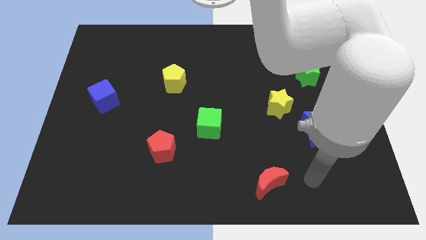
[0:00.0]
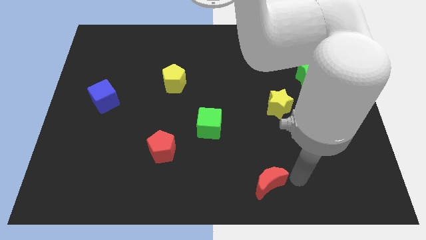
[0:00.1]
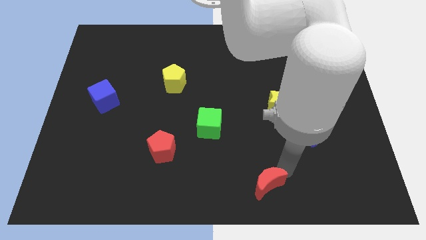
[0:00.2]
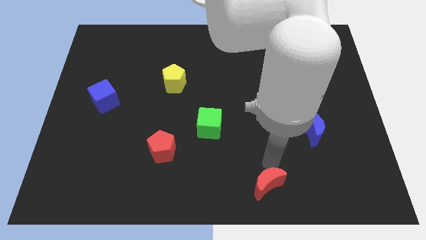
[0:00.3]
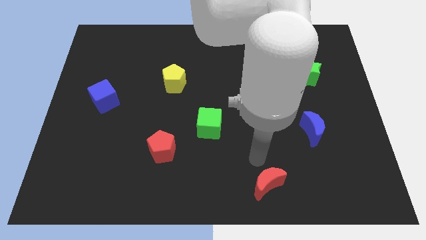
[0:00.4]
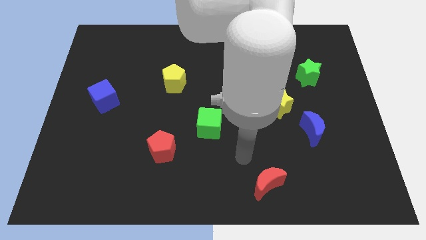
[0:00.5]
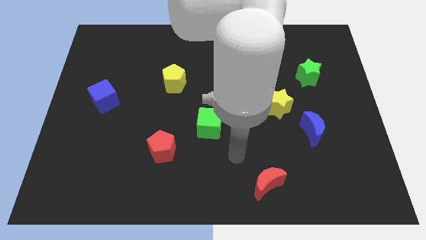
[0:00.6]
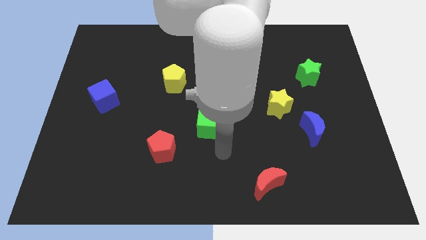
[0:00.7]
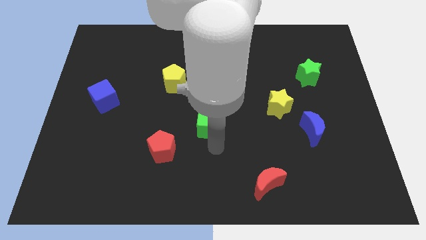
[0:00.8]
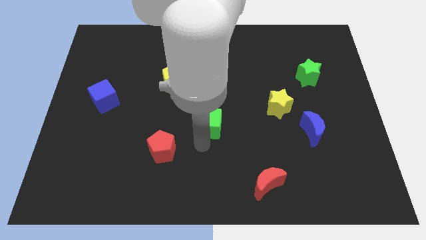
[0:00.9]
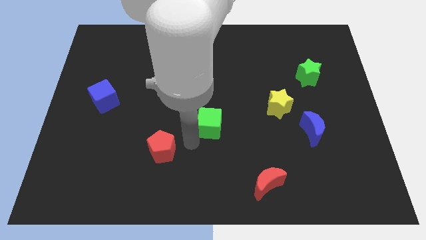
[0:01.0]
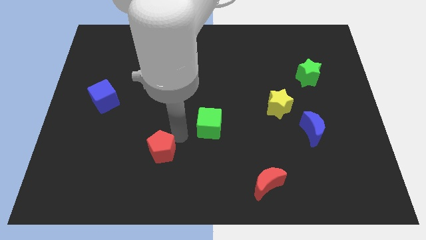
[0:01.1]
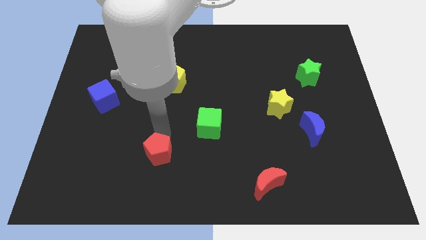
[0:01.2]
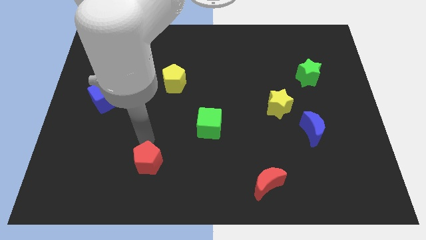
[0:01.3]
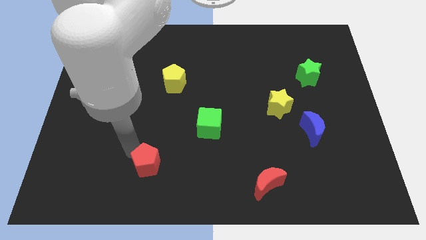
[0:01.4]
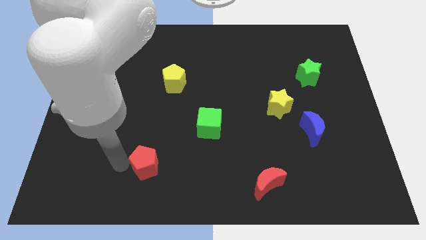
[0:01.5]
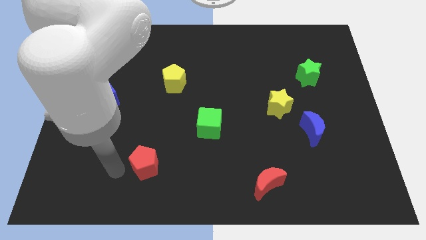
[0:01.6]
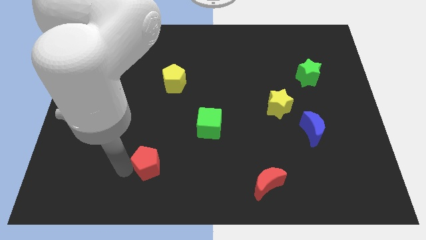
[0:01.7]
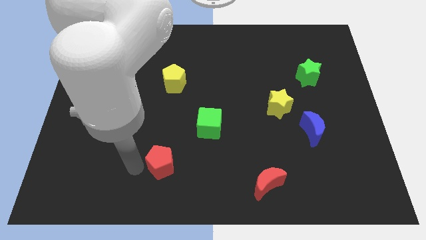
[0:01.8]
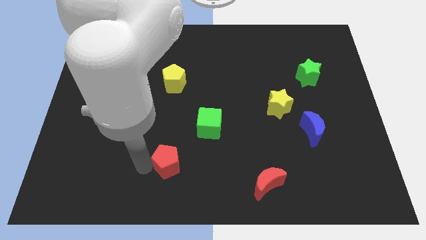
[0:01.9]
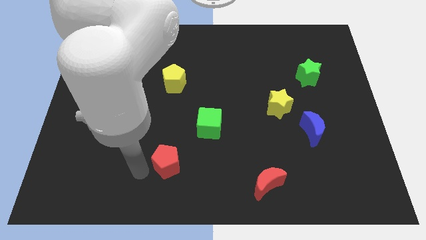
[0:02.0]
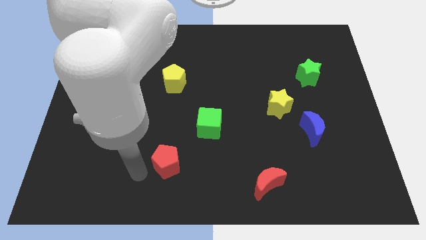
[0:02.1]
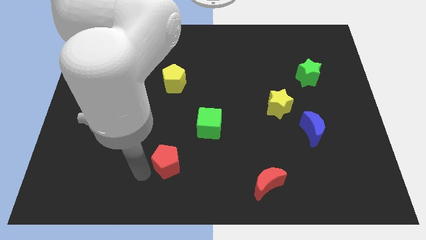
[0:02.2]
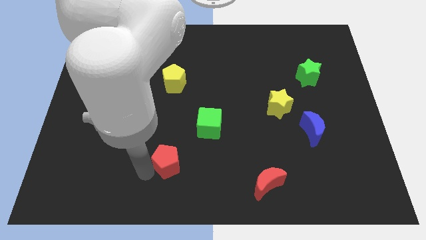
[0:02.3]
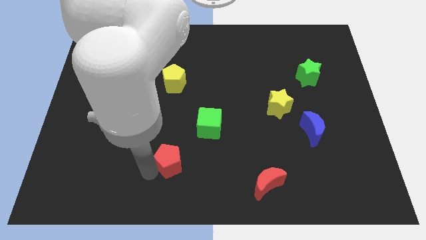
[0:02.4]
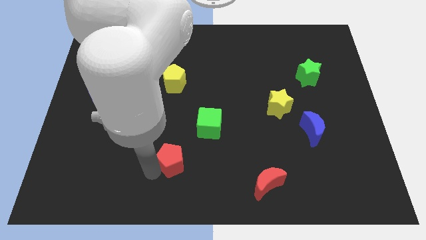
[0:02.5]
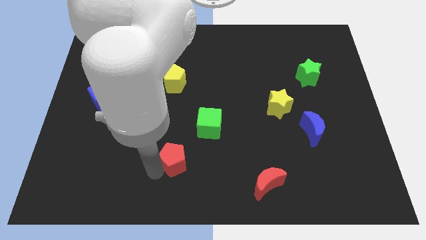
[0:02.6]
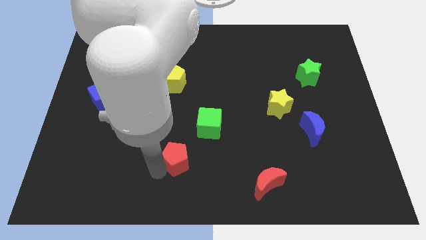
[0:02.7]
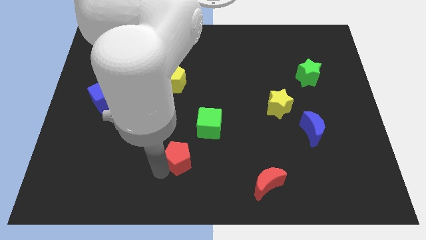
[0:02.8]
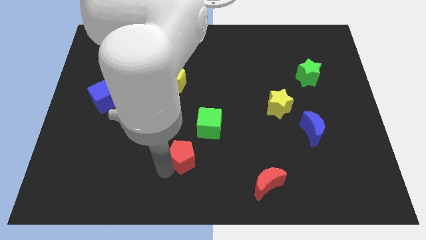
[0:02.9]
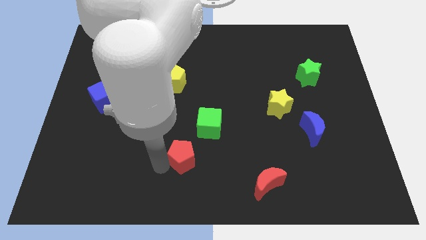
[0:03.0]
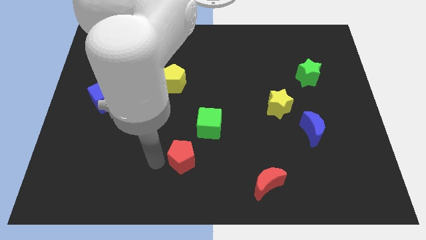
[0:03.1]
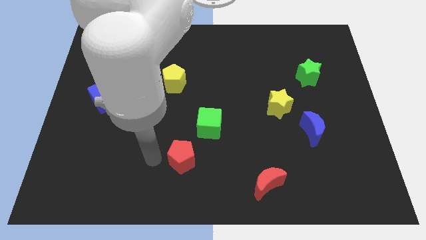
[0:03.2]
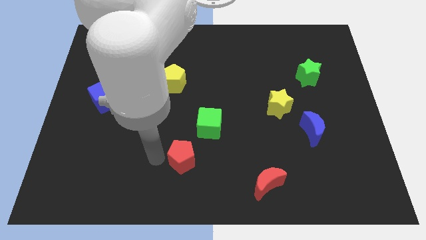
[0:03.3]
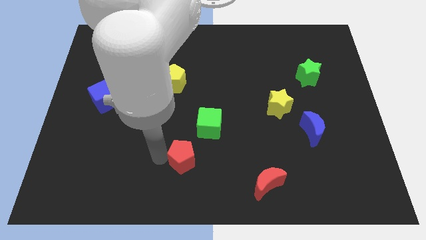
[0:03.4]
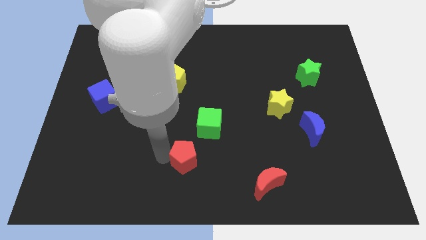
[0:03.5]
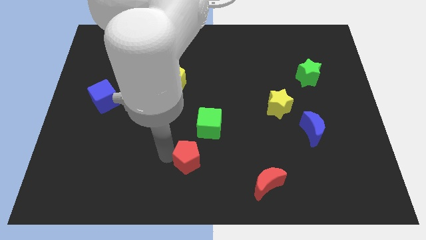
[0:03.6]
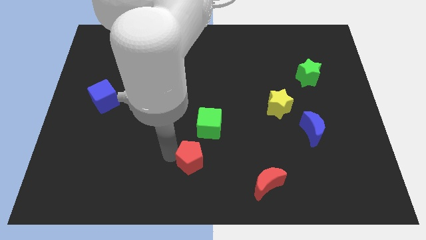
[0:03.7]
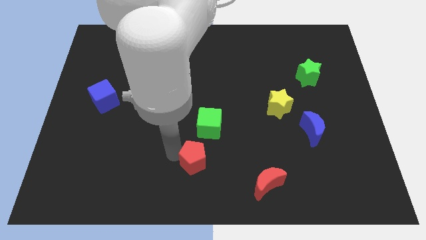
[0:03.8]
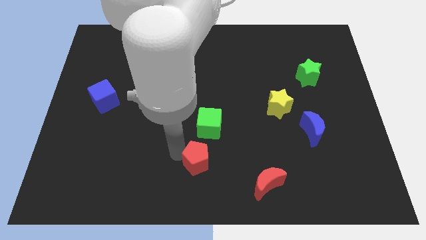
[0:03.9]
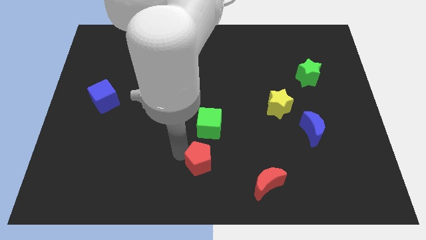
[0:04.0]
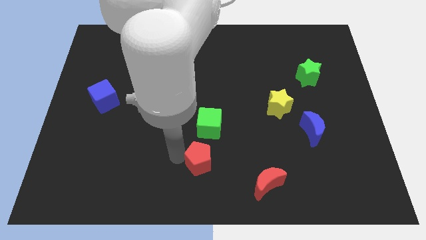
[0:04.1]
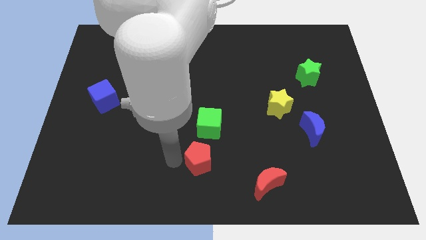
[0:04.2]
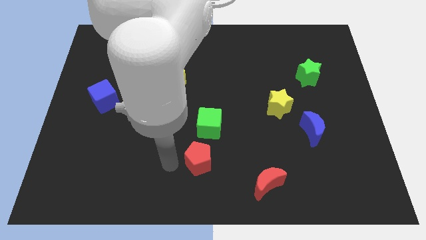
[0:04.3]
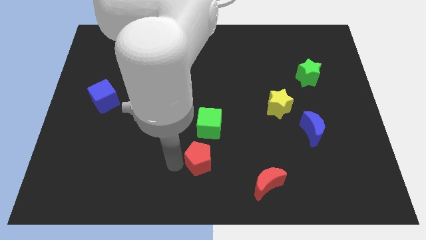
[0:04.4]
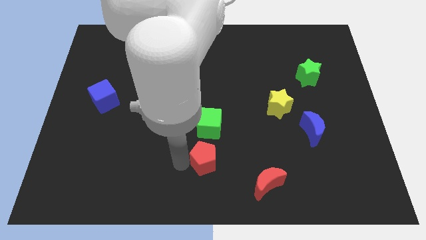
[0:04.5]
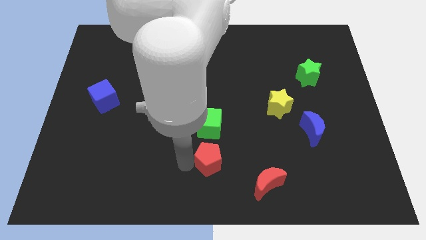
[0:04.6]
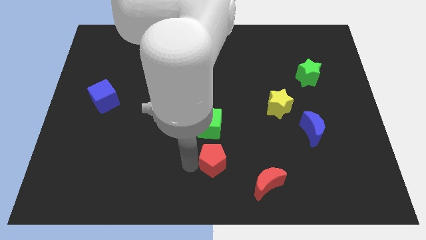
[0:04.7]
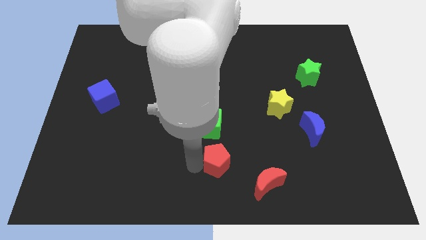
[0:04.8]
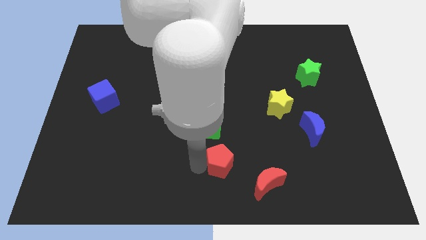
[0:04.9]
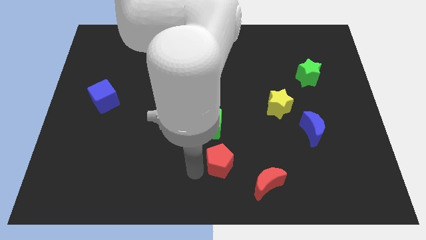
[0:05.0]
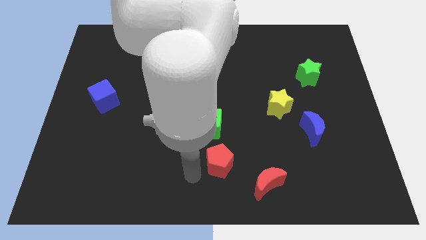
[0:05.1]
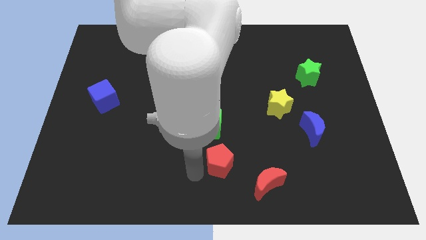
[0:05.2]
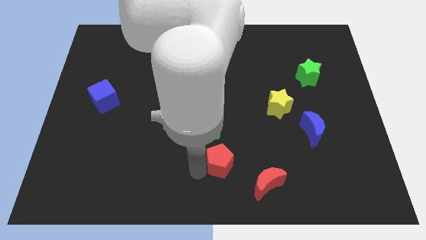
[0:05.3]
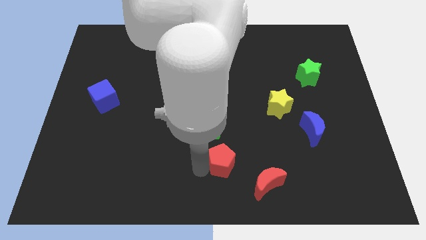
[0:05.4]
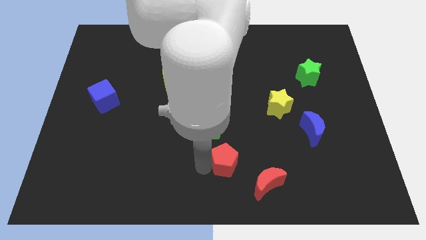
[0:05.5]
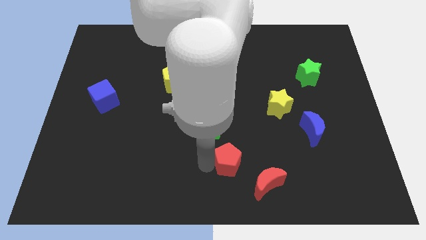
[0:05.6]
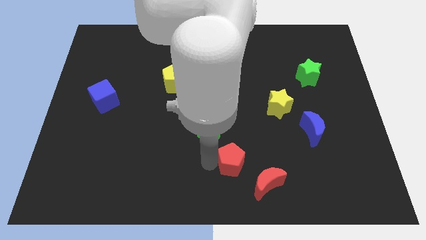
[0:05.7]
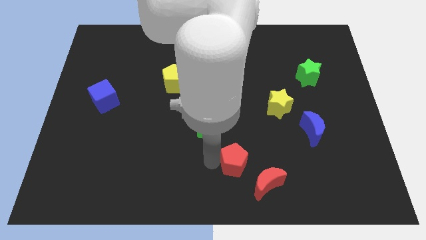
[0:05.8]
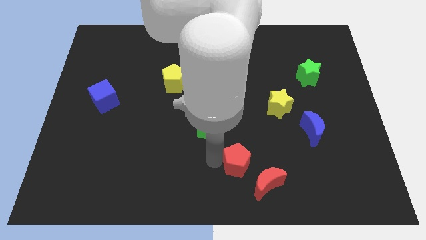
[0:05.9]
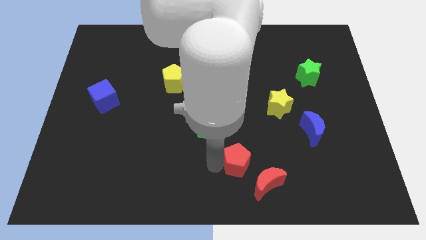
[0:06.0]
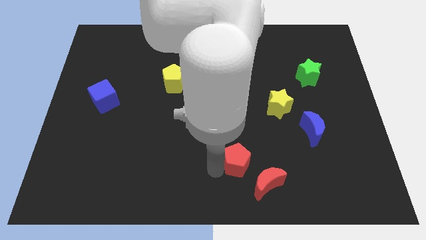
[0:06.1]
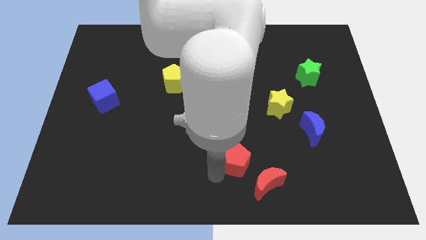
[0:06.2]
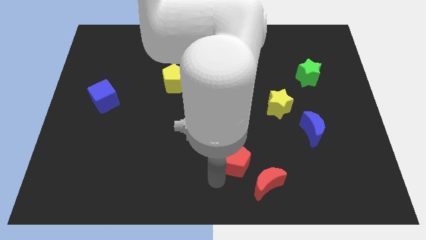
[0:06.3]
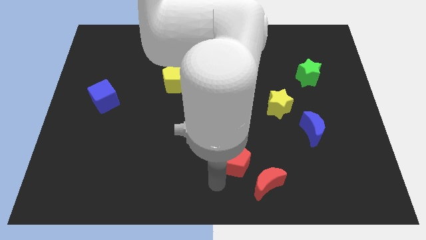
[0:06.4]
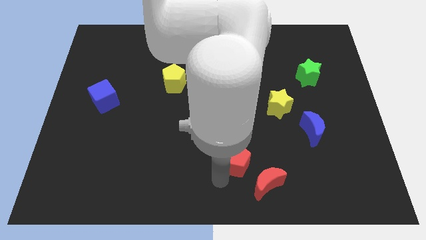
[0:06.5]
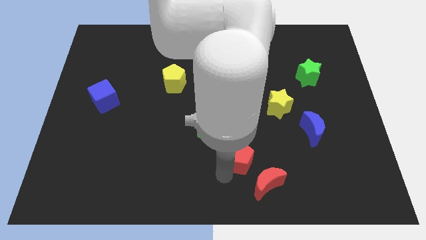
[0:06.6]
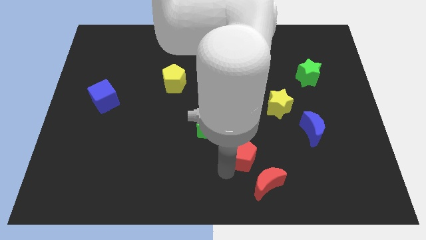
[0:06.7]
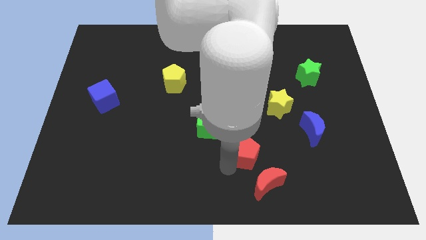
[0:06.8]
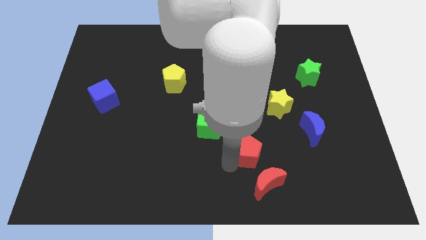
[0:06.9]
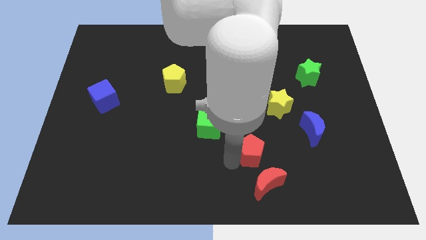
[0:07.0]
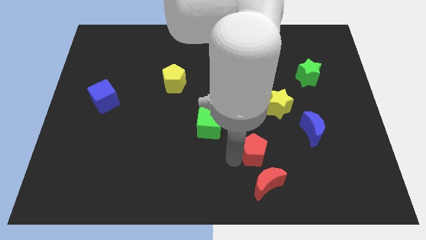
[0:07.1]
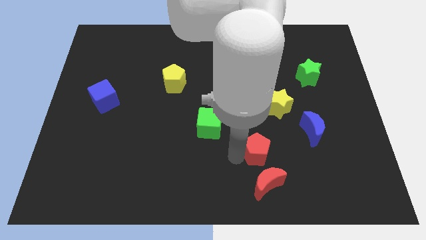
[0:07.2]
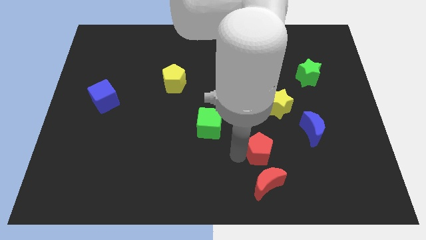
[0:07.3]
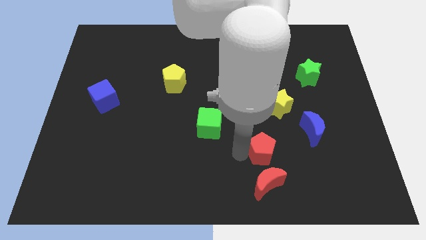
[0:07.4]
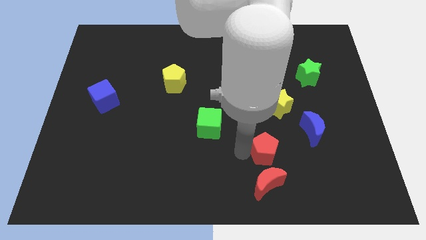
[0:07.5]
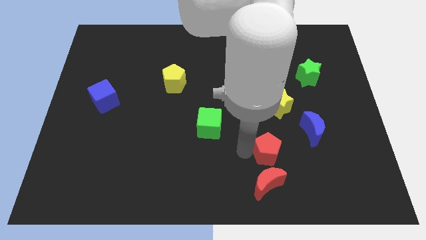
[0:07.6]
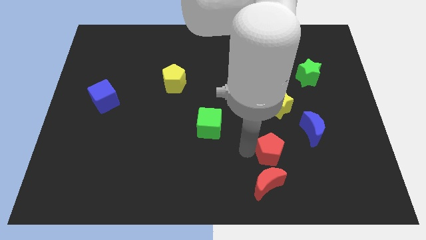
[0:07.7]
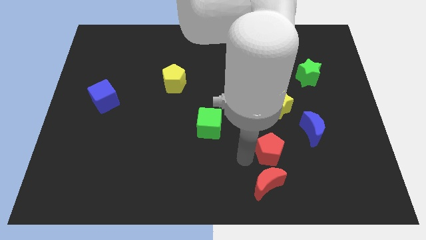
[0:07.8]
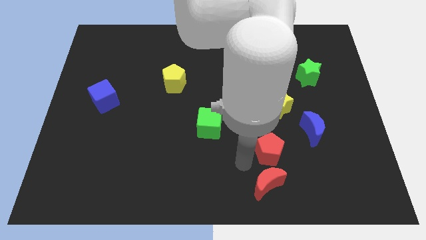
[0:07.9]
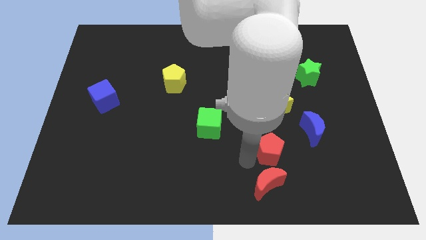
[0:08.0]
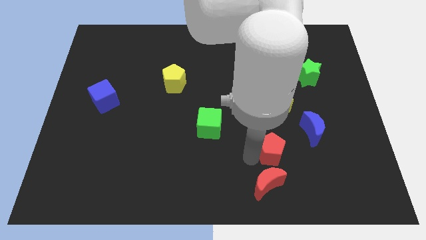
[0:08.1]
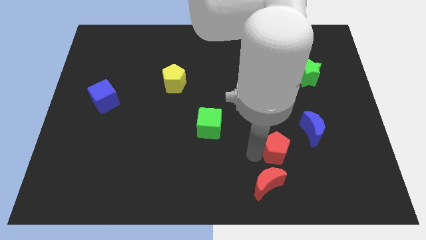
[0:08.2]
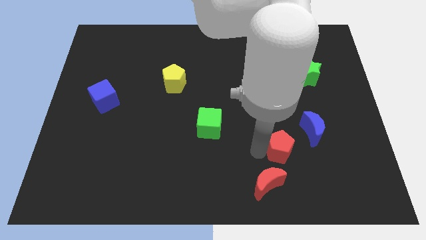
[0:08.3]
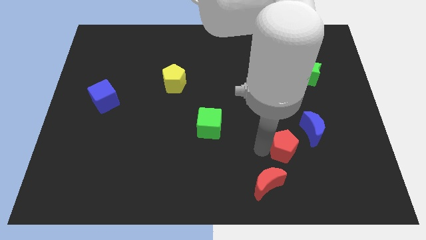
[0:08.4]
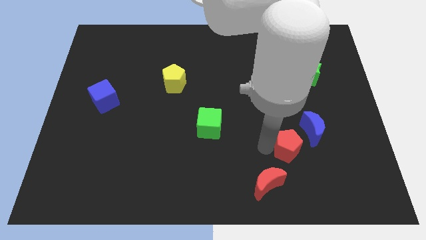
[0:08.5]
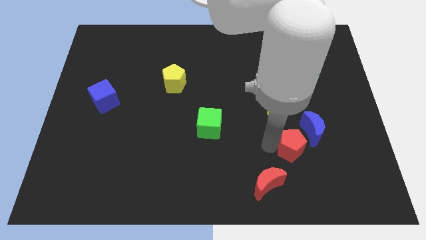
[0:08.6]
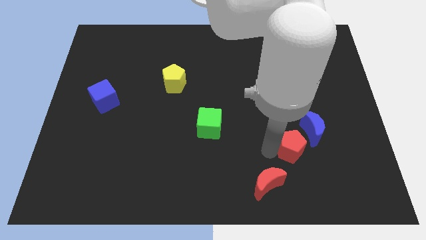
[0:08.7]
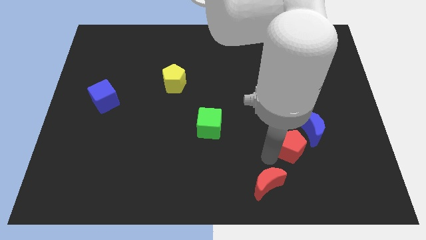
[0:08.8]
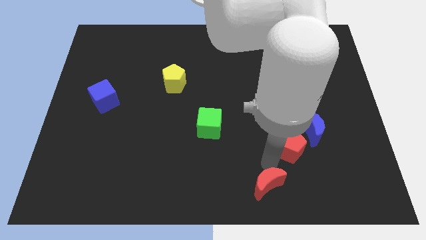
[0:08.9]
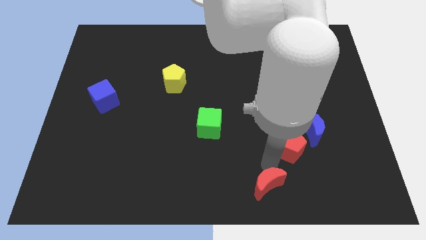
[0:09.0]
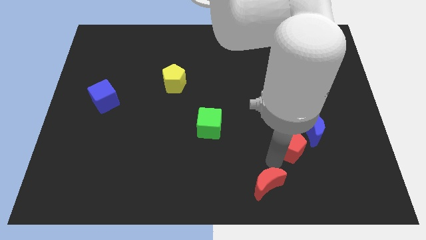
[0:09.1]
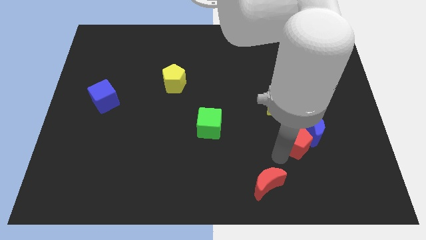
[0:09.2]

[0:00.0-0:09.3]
push the red pentagon close to the blue moon
